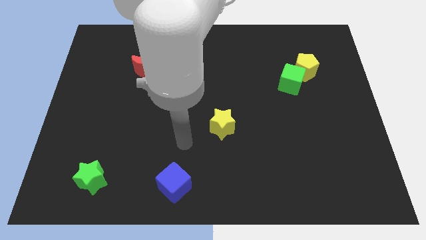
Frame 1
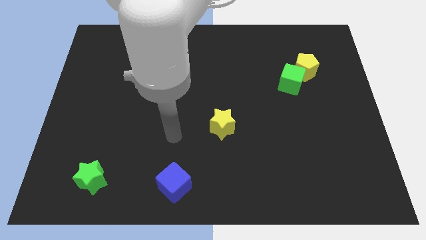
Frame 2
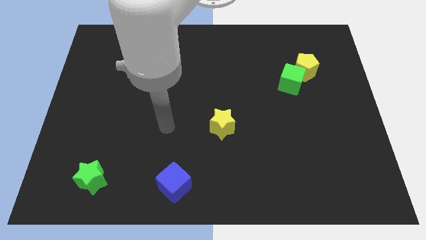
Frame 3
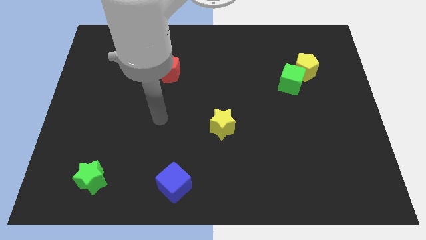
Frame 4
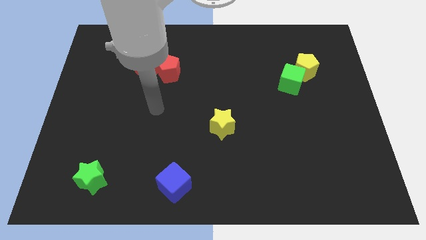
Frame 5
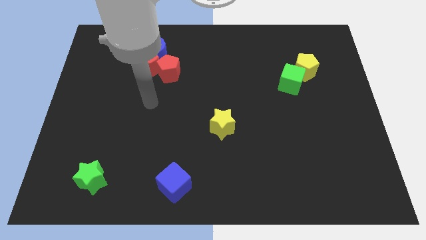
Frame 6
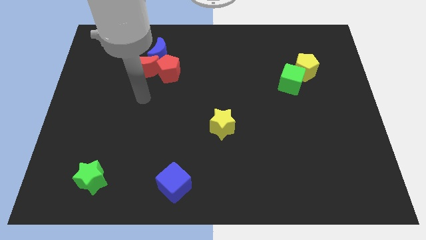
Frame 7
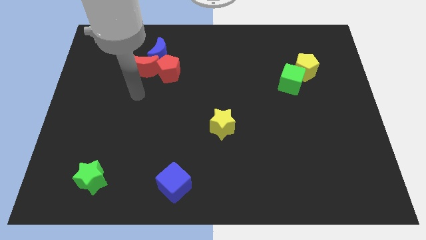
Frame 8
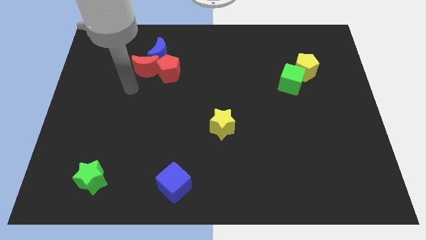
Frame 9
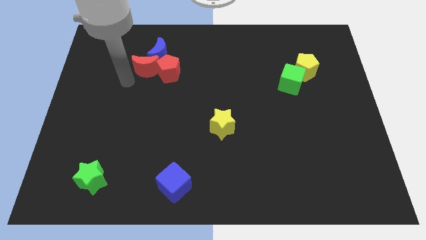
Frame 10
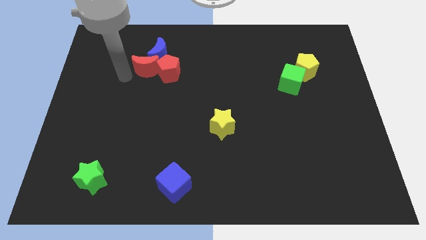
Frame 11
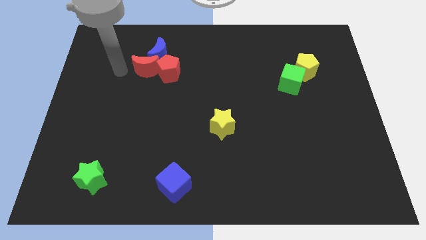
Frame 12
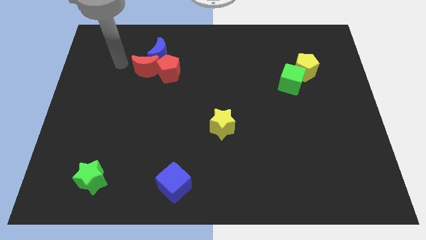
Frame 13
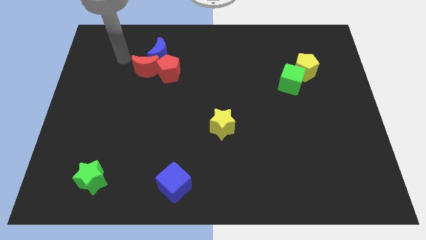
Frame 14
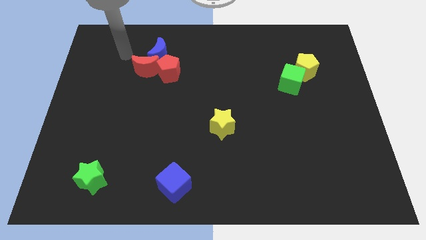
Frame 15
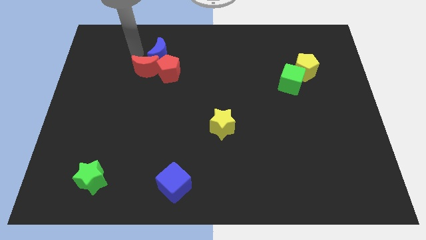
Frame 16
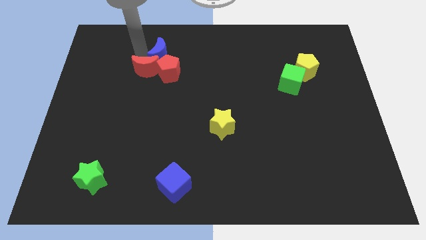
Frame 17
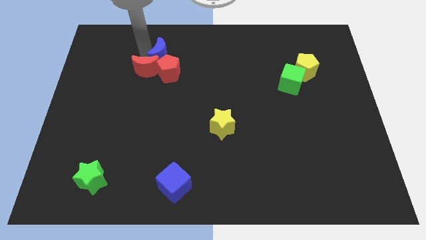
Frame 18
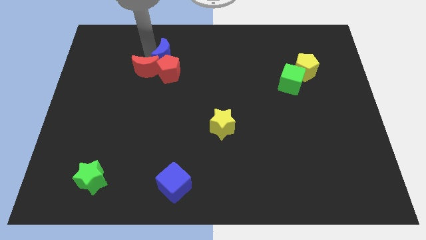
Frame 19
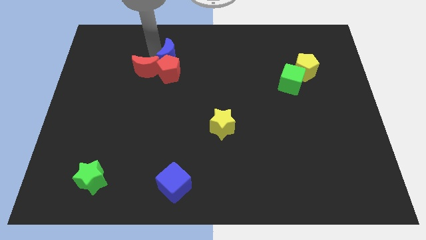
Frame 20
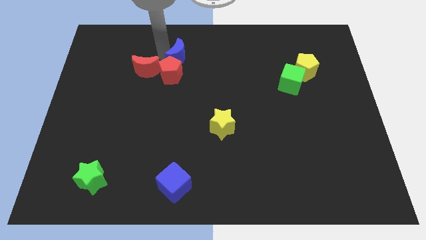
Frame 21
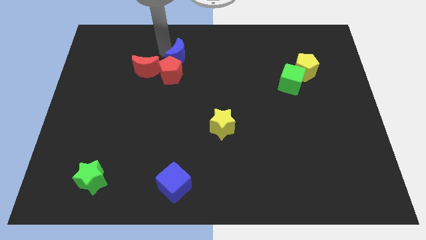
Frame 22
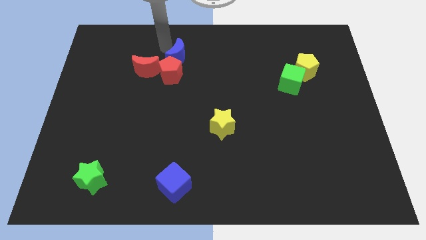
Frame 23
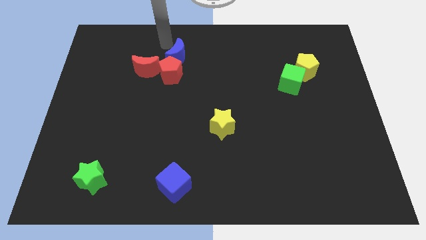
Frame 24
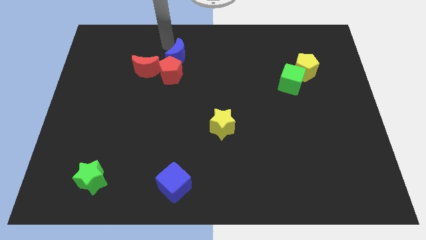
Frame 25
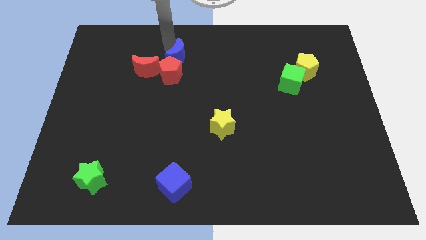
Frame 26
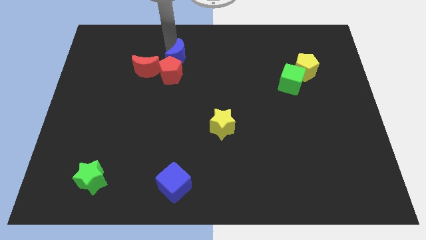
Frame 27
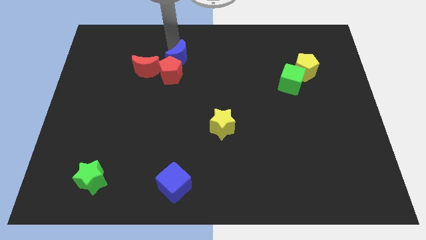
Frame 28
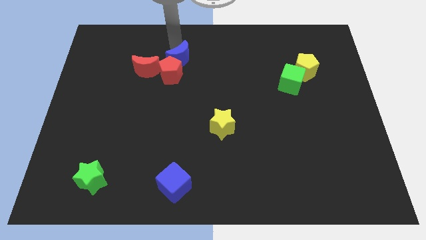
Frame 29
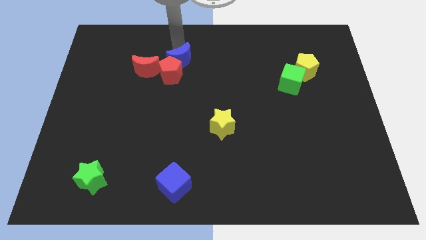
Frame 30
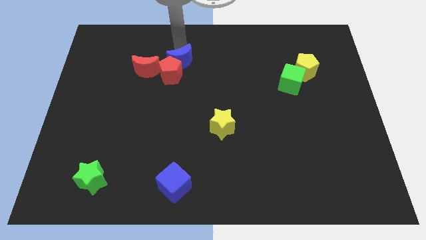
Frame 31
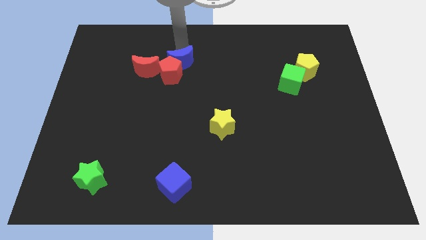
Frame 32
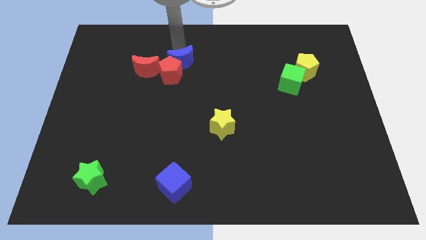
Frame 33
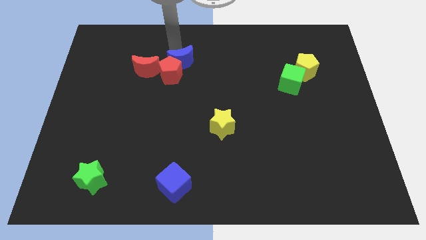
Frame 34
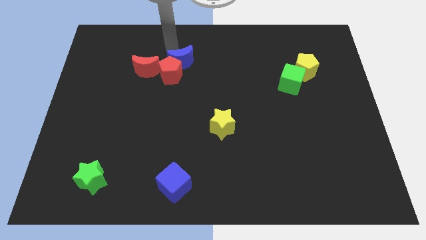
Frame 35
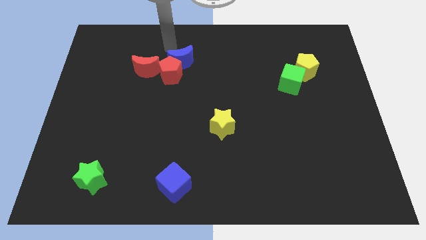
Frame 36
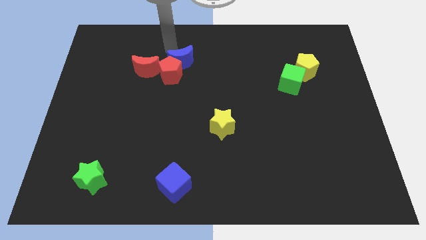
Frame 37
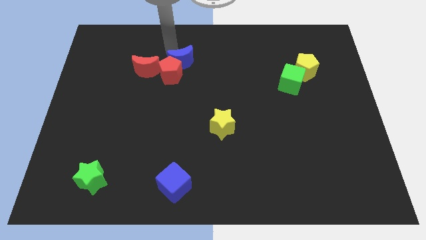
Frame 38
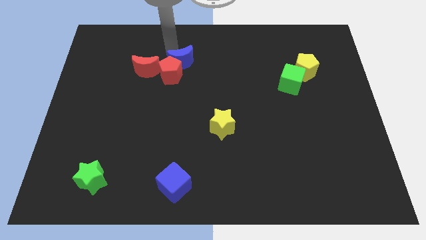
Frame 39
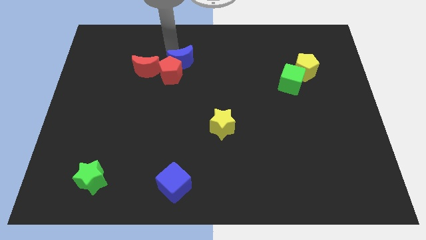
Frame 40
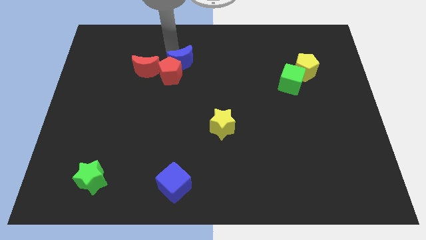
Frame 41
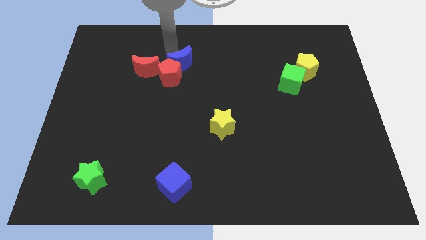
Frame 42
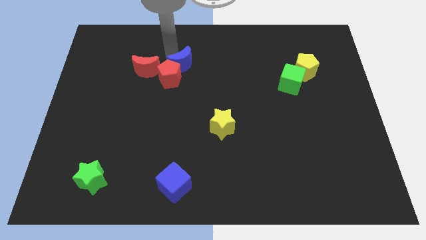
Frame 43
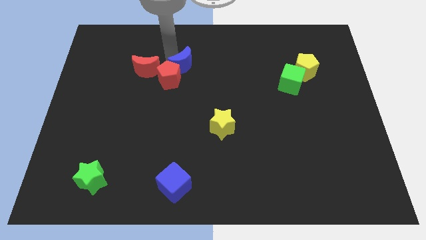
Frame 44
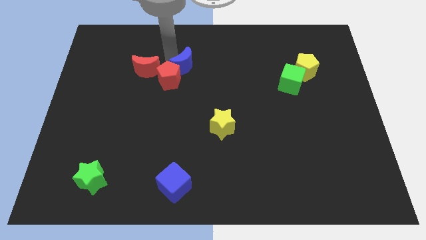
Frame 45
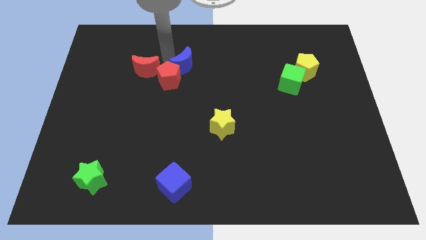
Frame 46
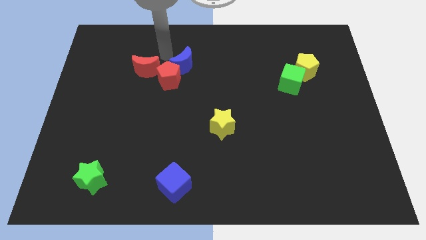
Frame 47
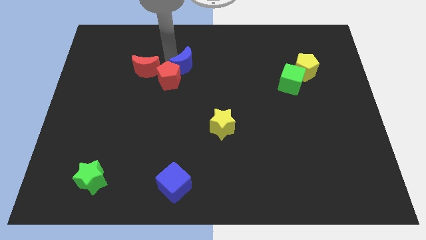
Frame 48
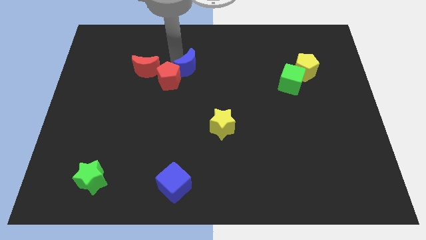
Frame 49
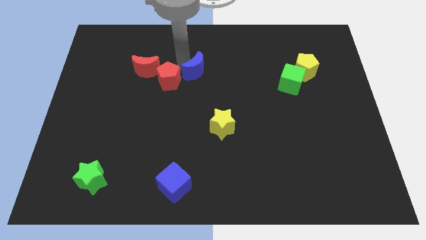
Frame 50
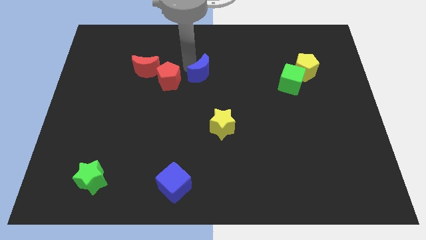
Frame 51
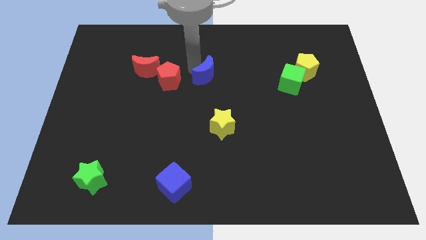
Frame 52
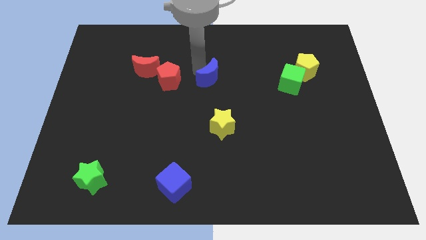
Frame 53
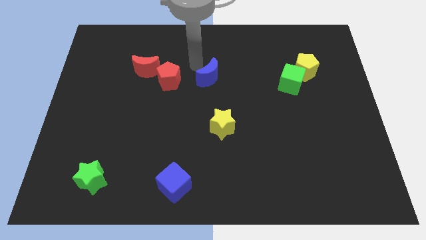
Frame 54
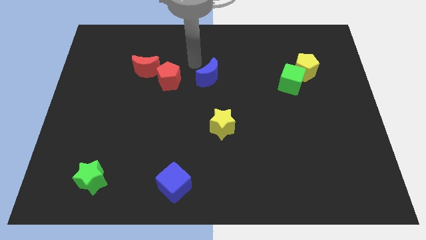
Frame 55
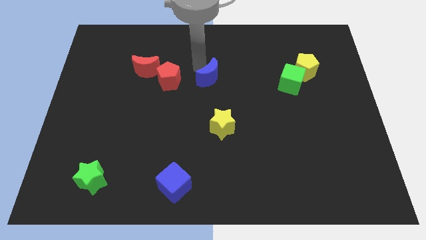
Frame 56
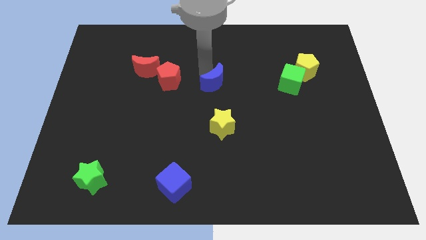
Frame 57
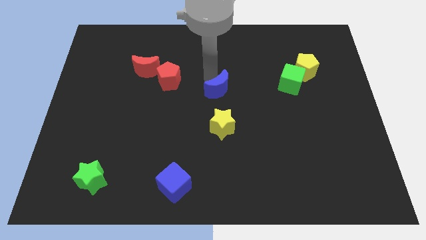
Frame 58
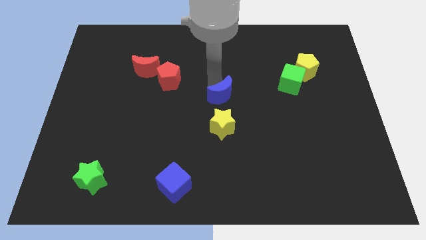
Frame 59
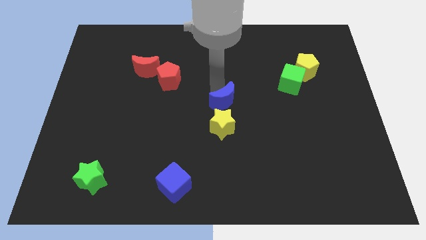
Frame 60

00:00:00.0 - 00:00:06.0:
move the blue moon to the top right side of the yellow star

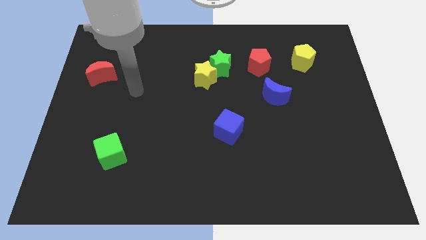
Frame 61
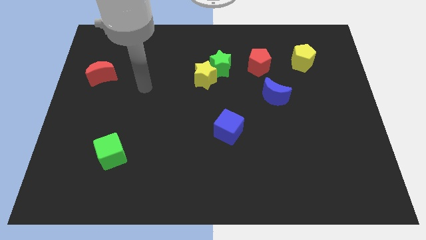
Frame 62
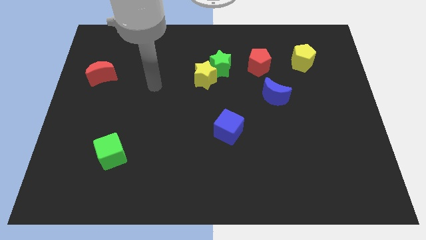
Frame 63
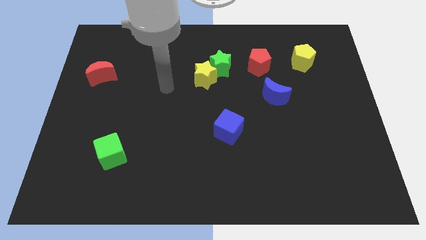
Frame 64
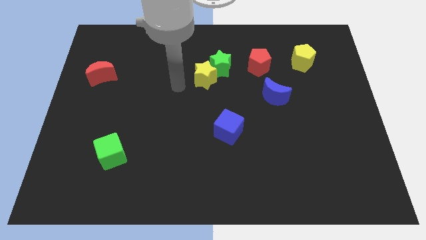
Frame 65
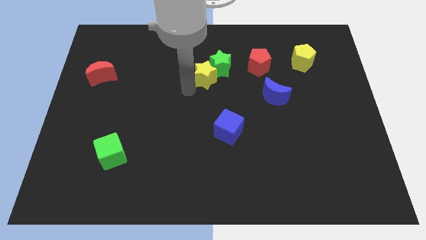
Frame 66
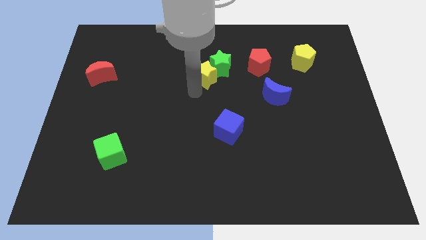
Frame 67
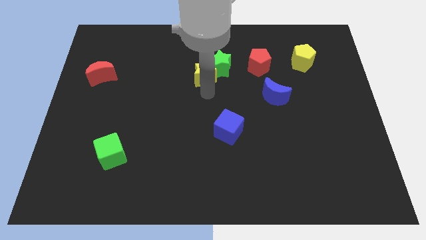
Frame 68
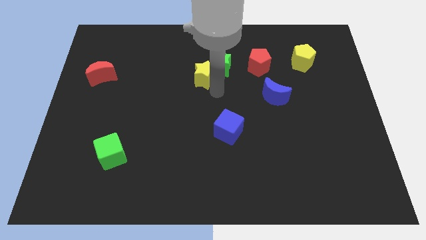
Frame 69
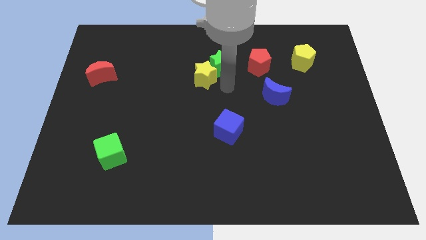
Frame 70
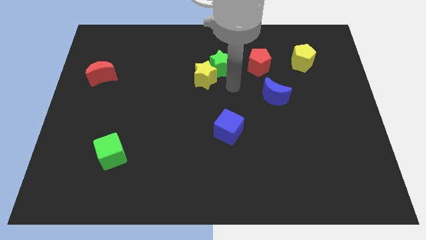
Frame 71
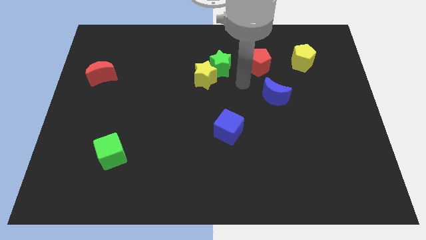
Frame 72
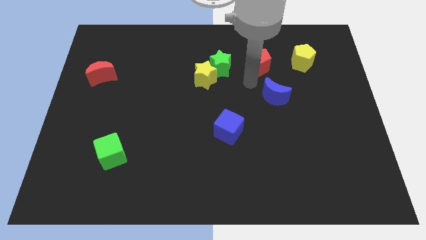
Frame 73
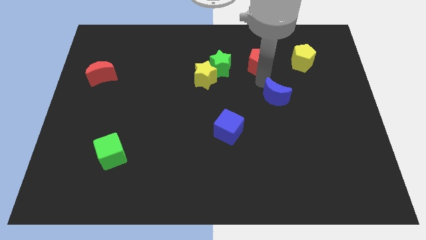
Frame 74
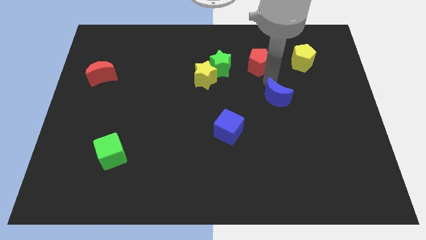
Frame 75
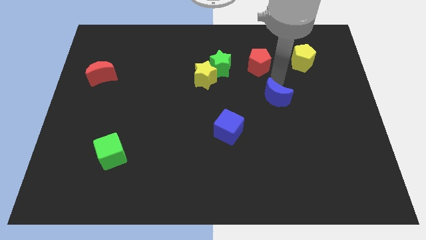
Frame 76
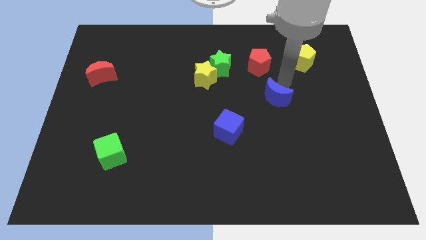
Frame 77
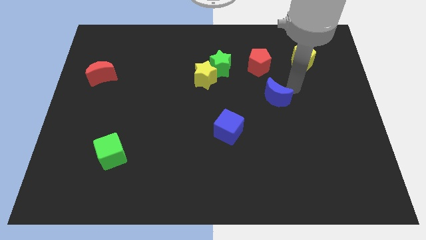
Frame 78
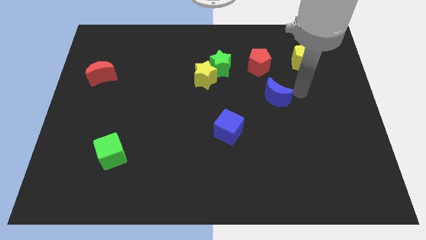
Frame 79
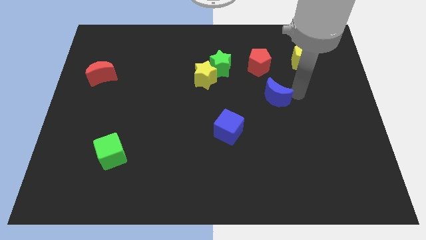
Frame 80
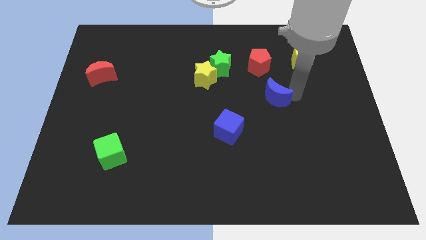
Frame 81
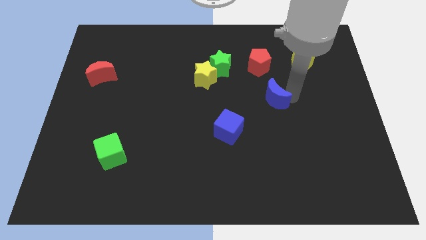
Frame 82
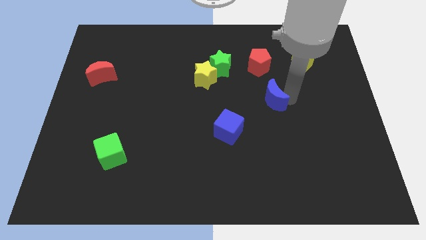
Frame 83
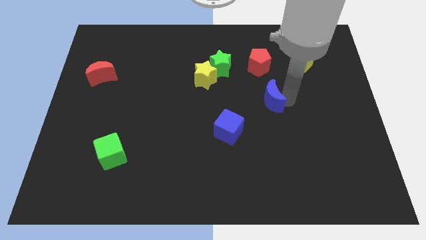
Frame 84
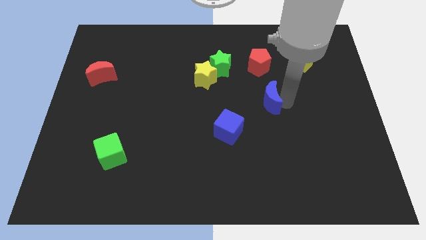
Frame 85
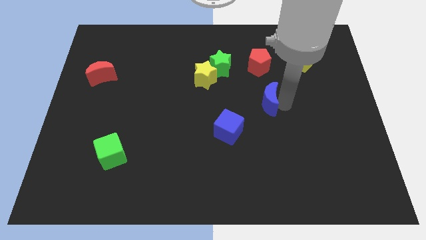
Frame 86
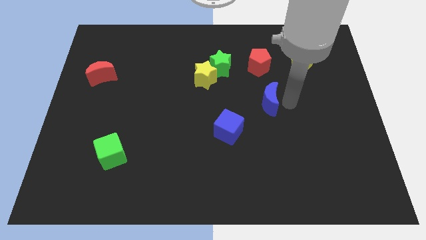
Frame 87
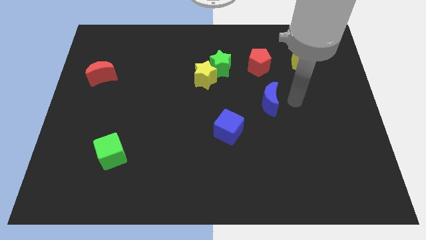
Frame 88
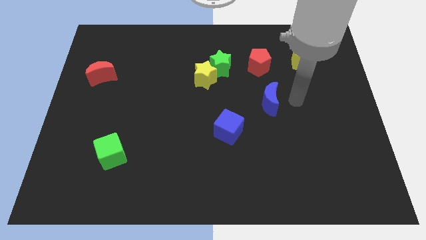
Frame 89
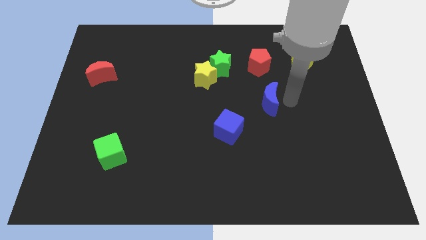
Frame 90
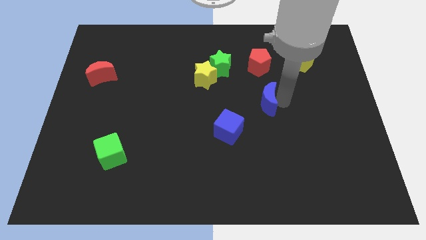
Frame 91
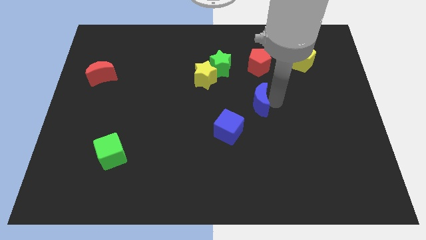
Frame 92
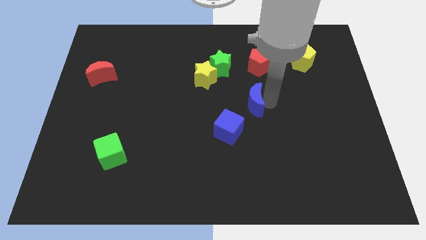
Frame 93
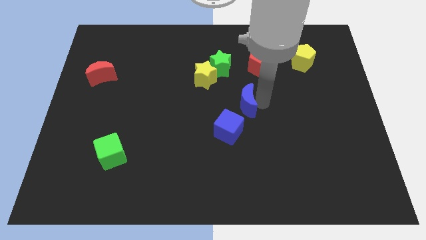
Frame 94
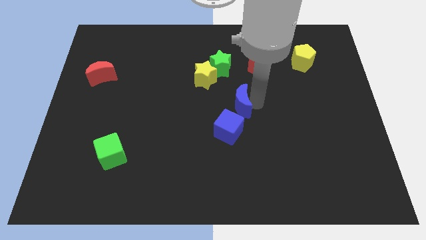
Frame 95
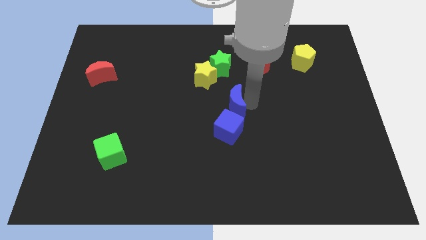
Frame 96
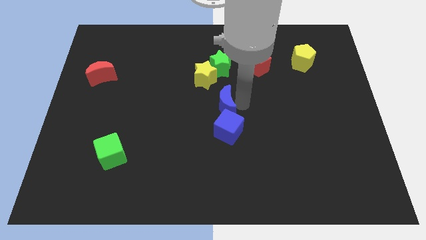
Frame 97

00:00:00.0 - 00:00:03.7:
move the blue moon to the bottom side of the yellow star
